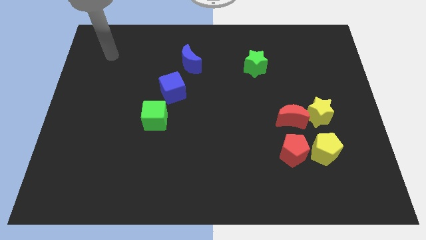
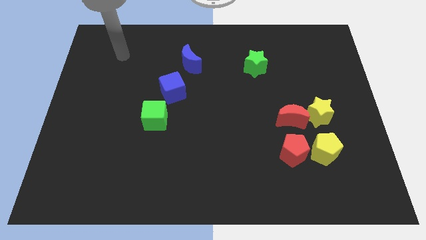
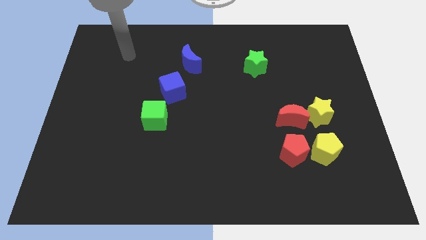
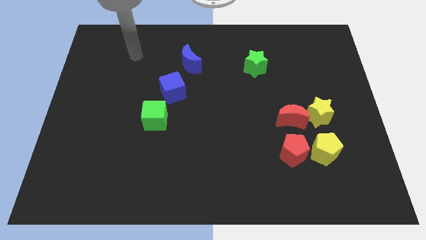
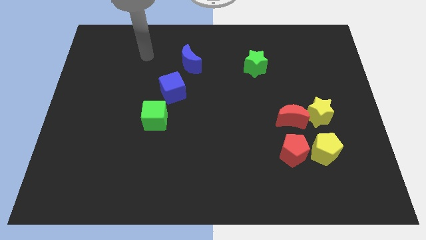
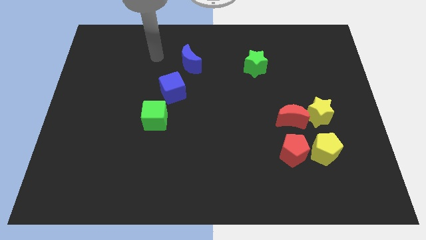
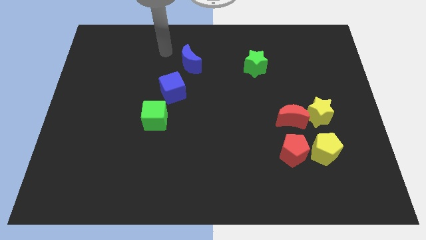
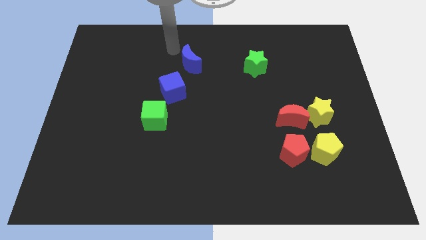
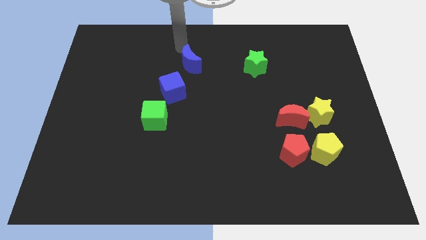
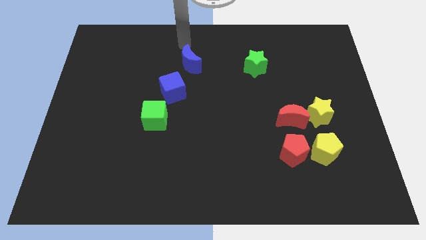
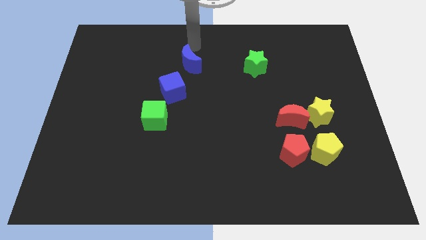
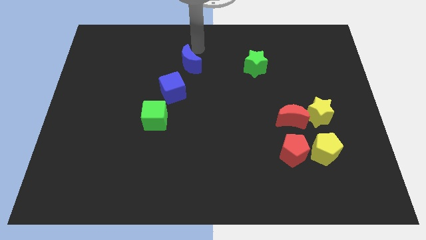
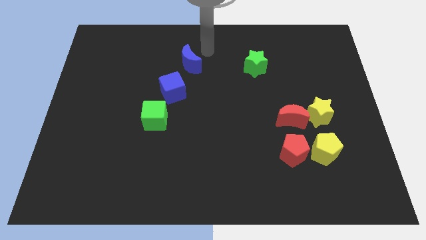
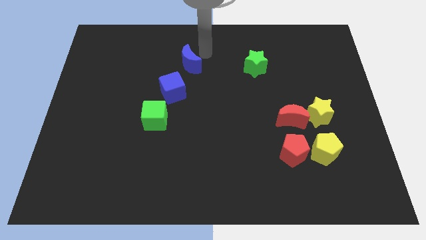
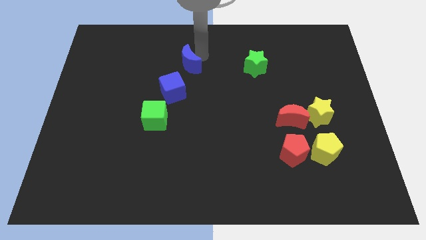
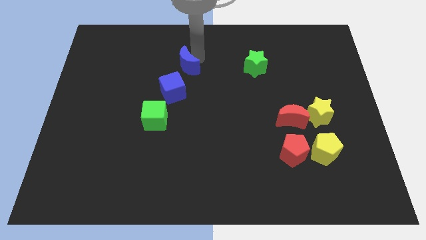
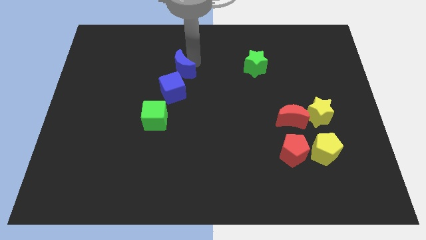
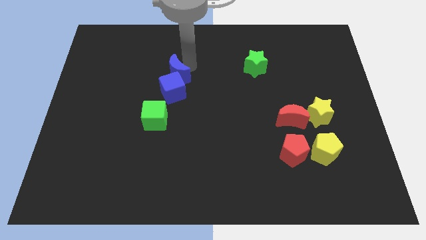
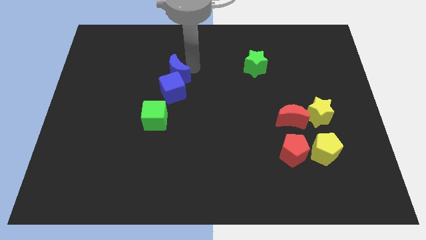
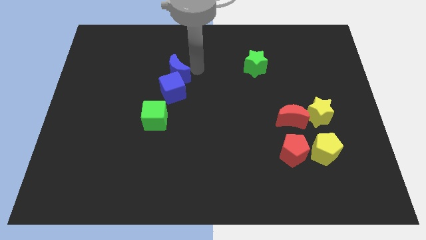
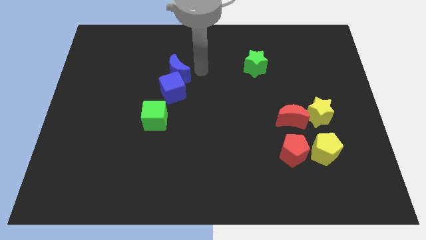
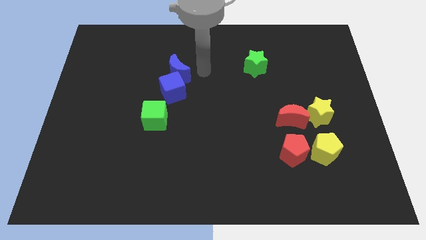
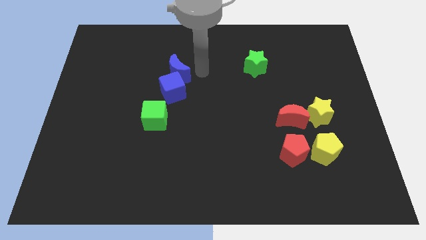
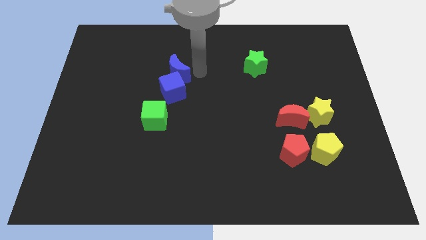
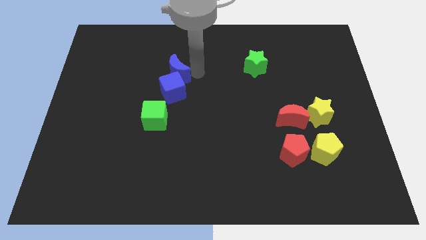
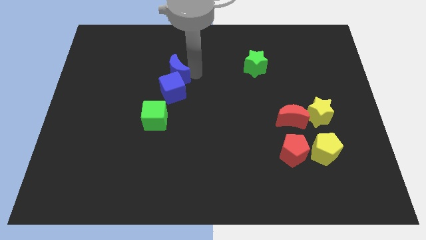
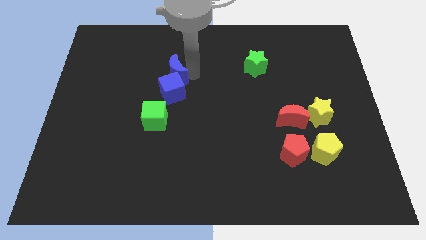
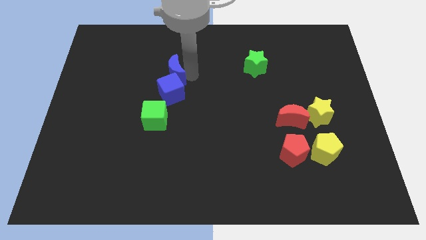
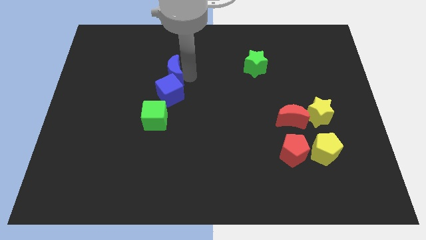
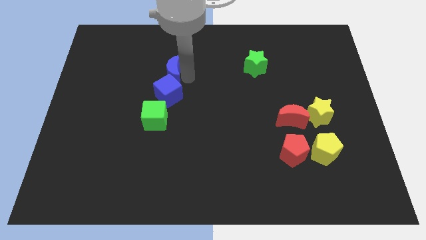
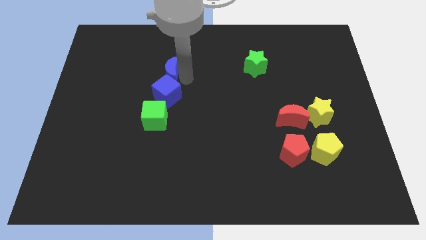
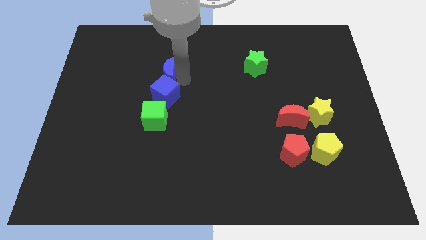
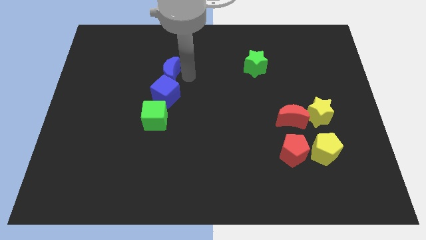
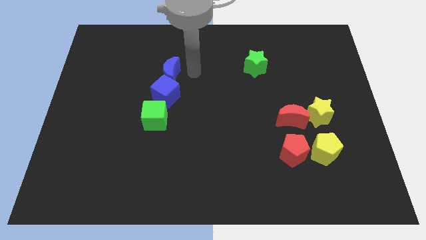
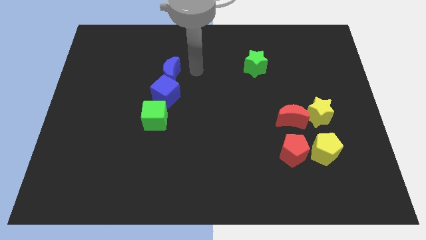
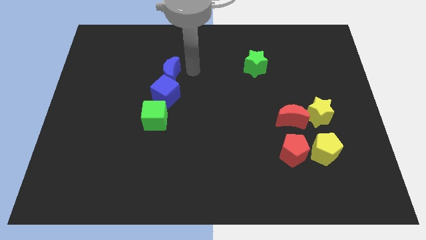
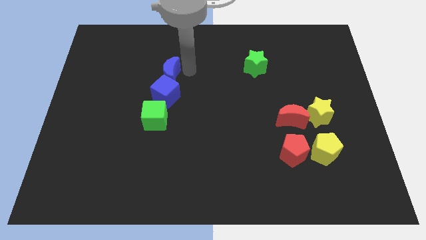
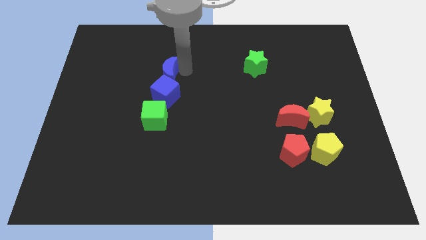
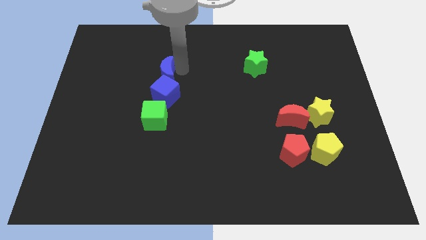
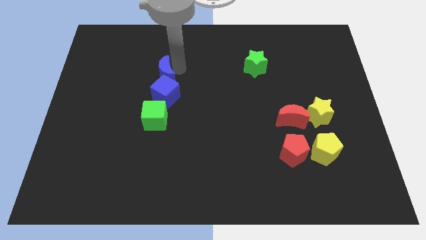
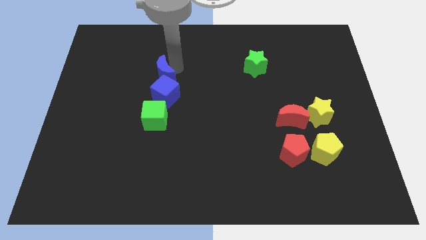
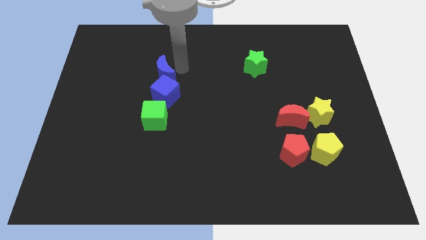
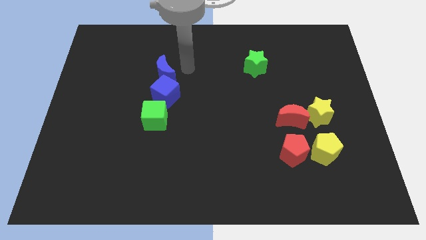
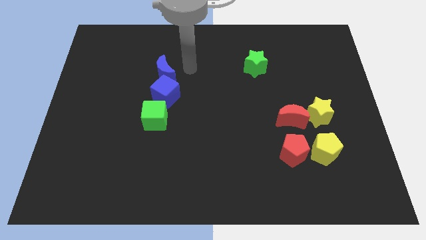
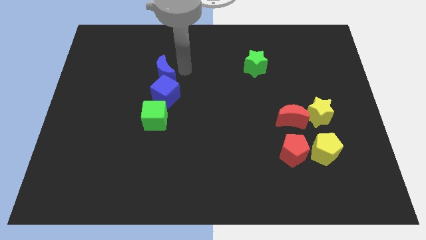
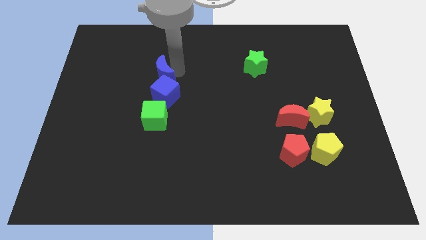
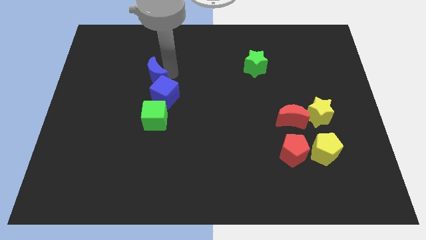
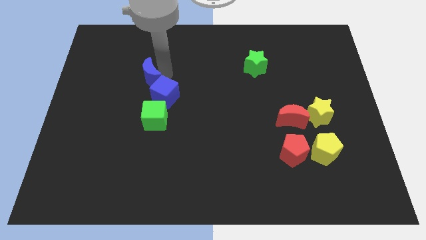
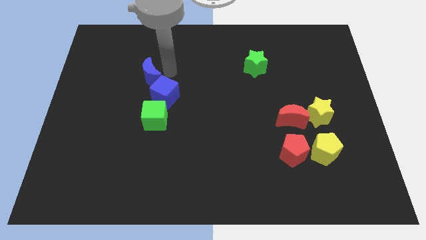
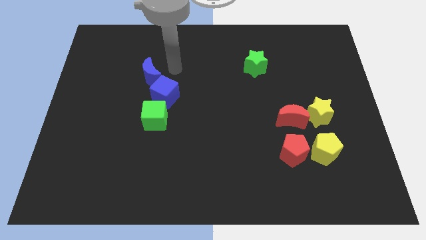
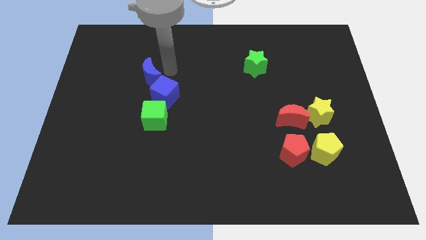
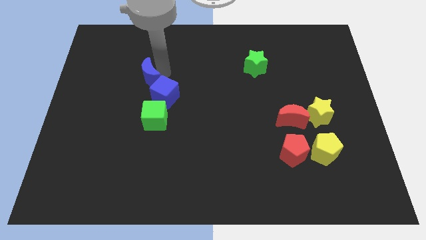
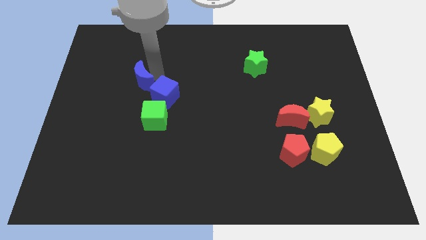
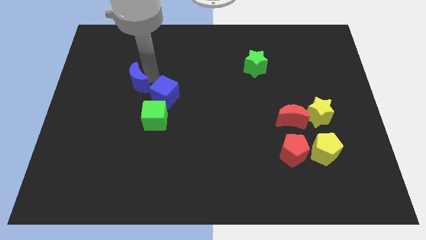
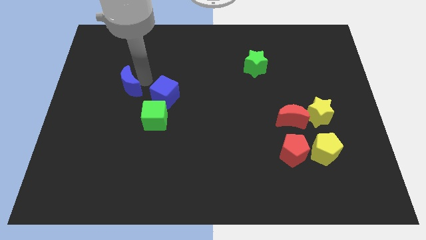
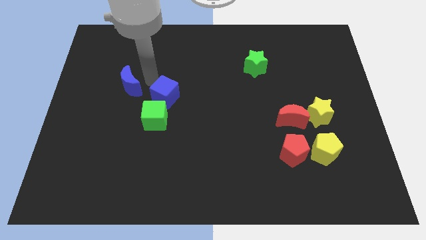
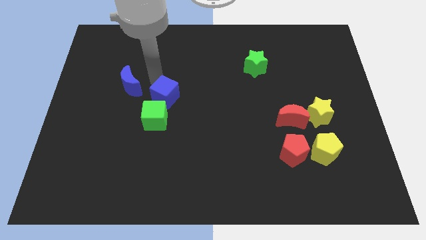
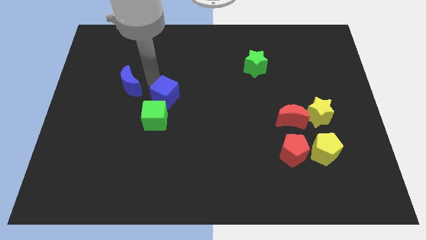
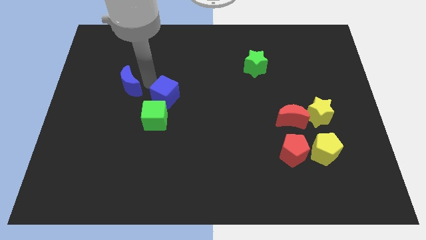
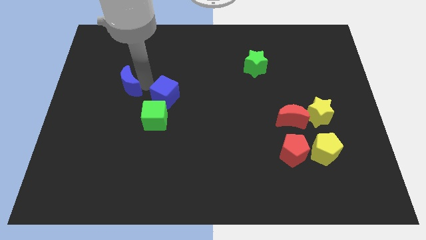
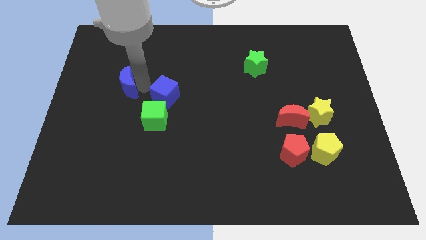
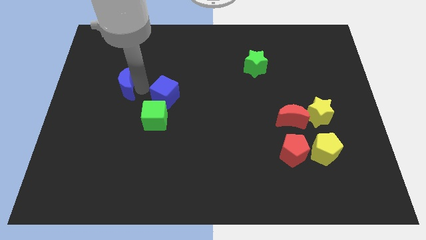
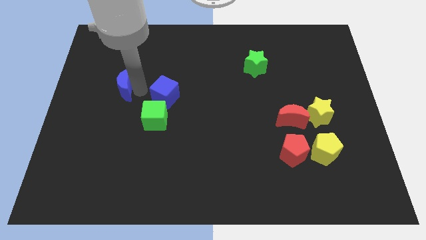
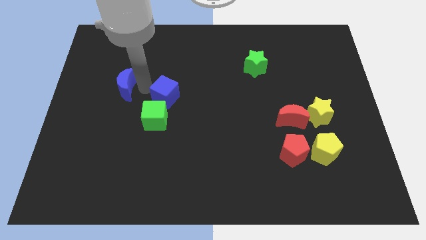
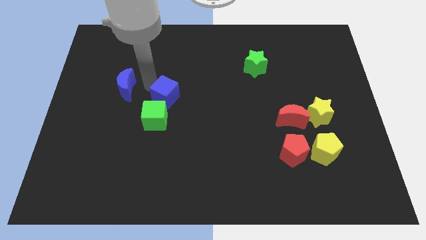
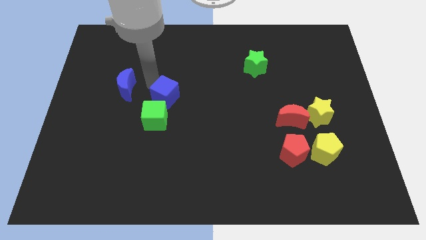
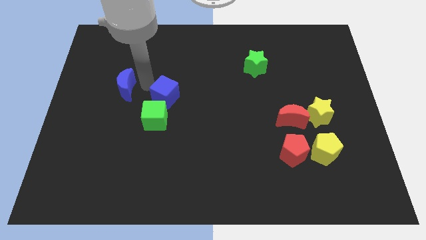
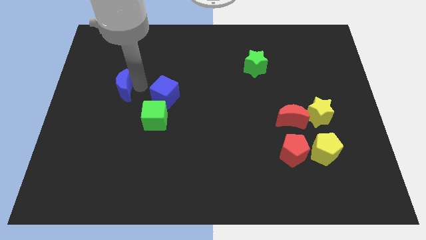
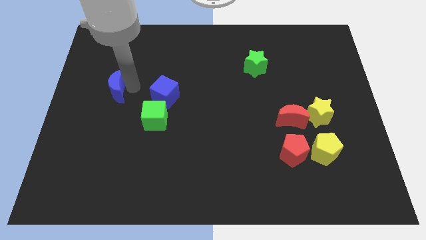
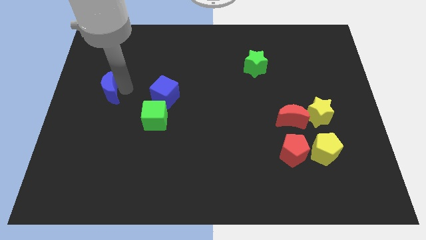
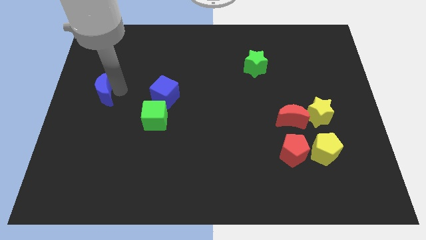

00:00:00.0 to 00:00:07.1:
slide the blue moon to the left side
